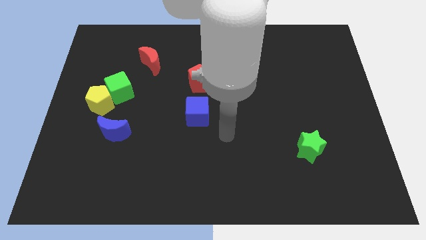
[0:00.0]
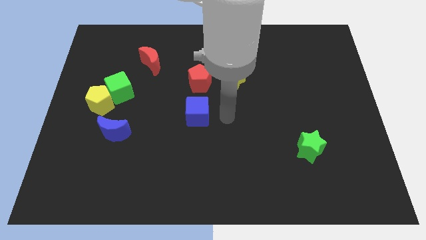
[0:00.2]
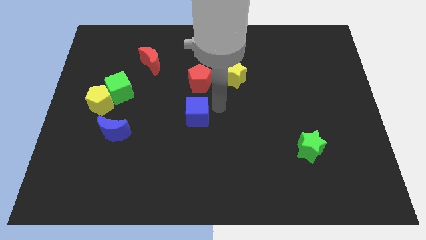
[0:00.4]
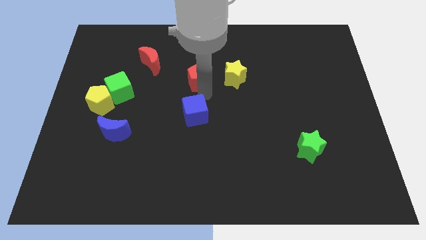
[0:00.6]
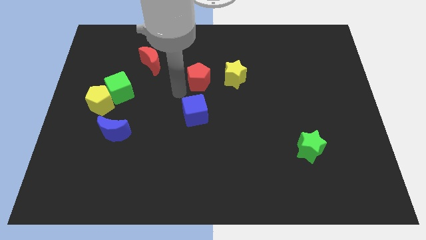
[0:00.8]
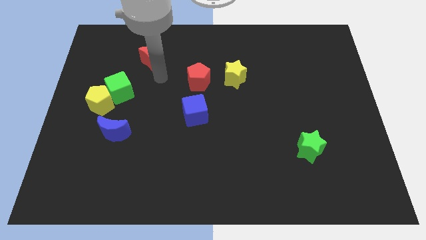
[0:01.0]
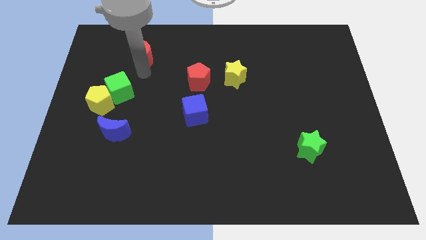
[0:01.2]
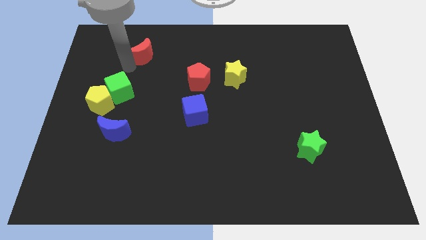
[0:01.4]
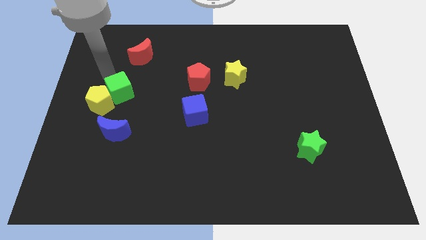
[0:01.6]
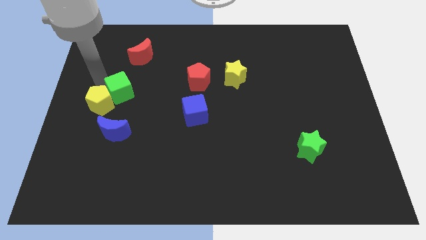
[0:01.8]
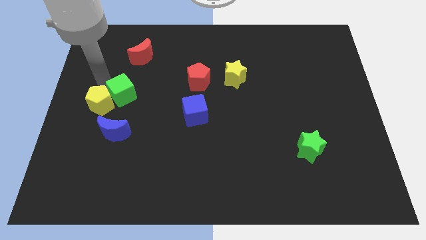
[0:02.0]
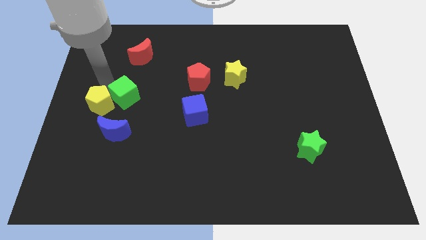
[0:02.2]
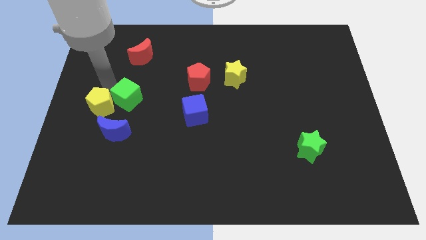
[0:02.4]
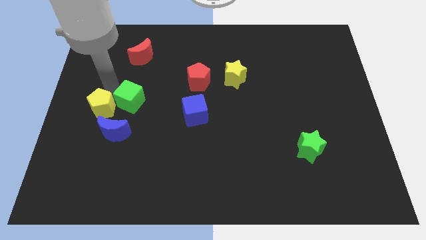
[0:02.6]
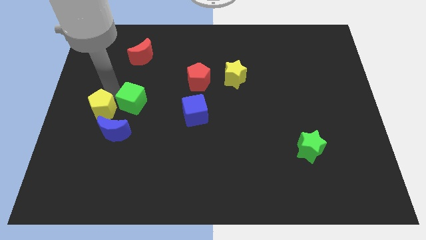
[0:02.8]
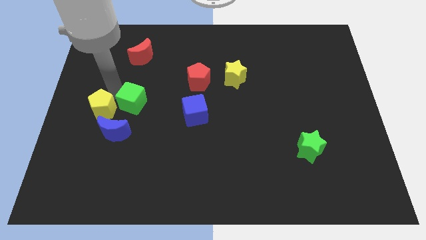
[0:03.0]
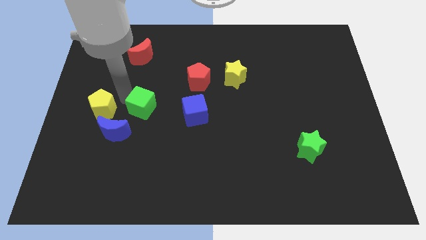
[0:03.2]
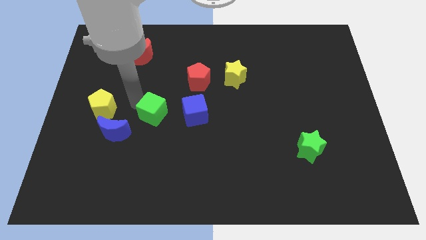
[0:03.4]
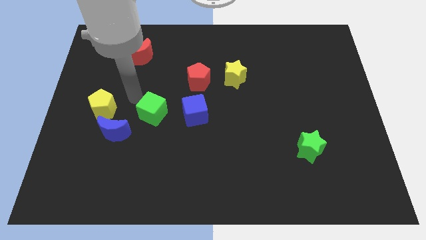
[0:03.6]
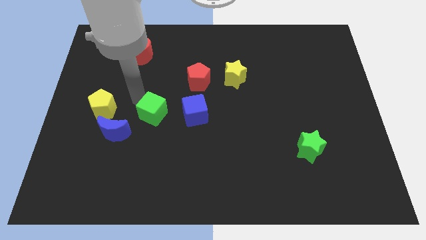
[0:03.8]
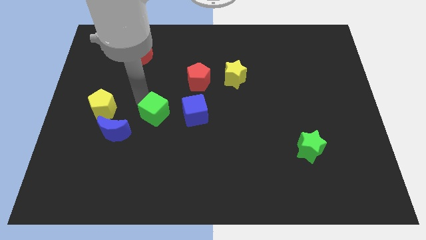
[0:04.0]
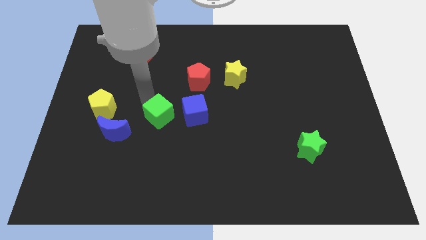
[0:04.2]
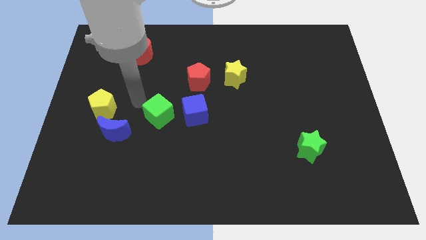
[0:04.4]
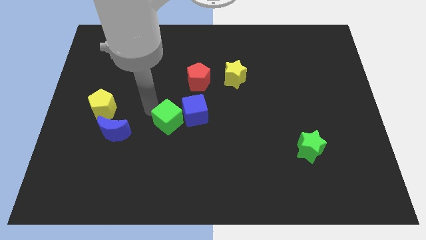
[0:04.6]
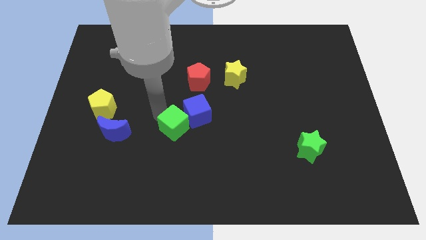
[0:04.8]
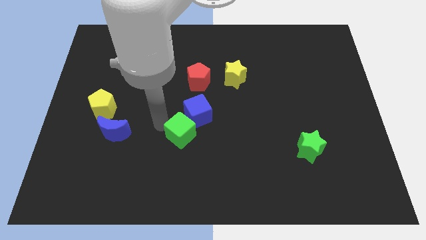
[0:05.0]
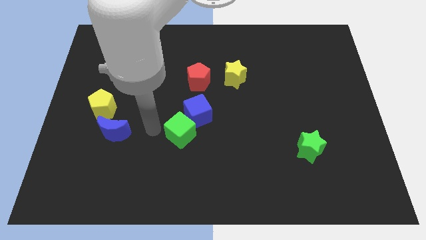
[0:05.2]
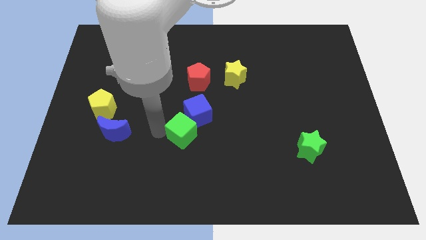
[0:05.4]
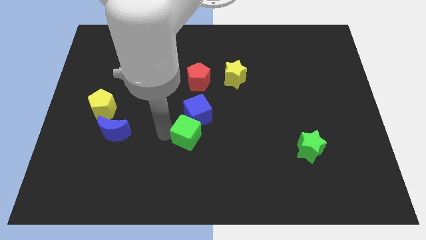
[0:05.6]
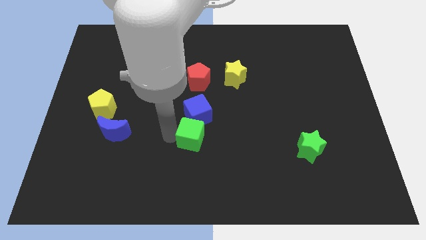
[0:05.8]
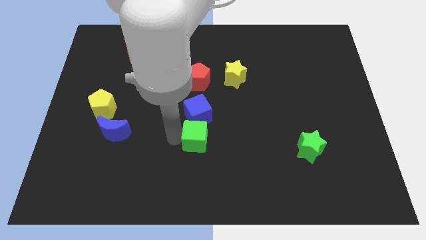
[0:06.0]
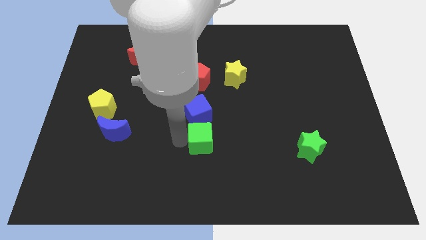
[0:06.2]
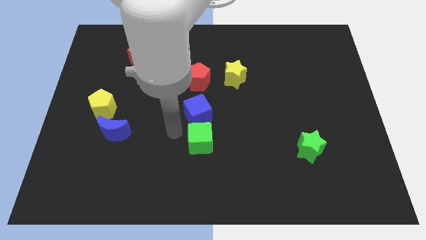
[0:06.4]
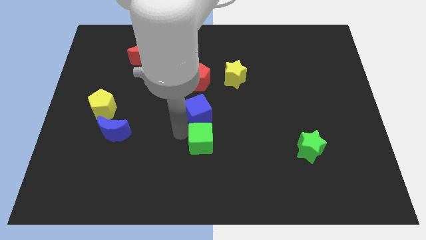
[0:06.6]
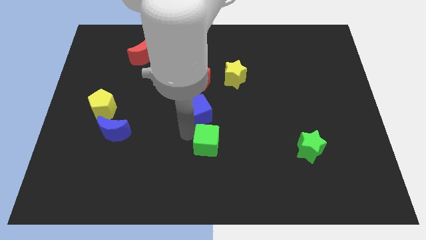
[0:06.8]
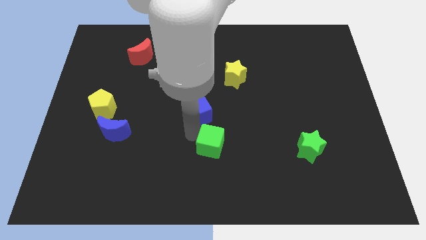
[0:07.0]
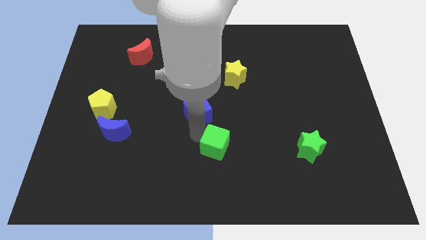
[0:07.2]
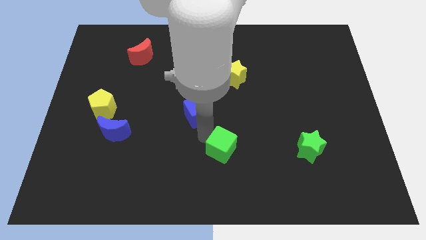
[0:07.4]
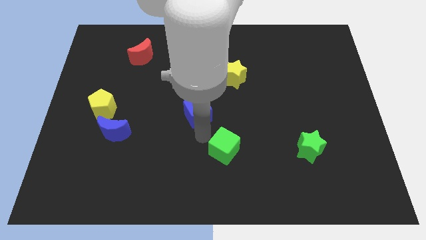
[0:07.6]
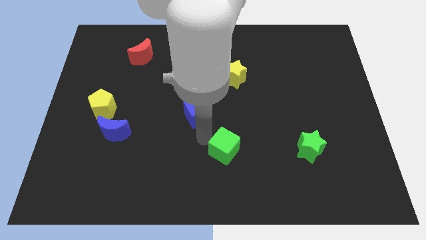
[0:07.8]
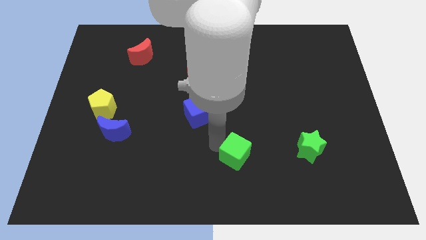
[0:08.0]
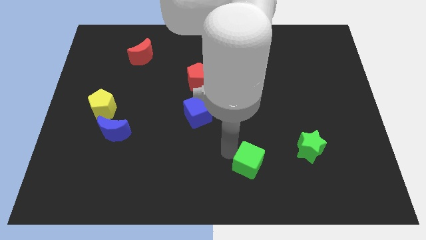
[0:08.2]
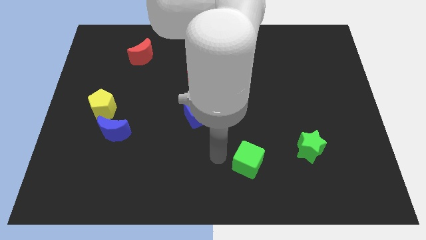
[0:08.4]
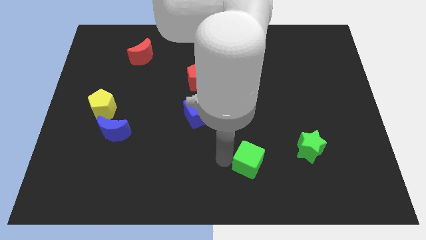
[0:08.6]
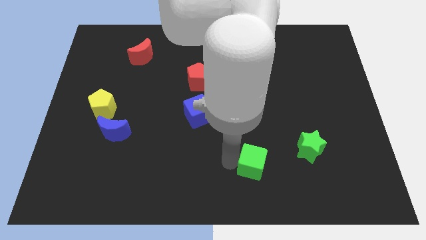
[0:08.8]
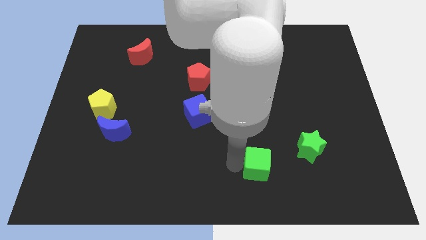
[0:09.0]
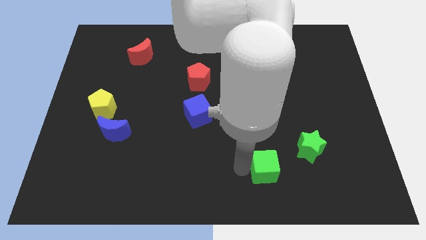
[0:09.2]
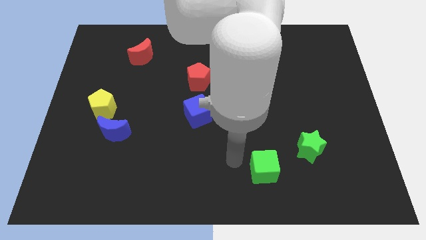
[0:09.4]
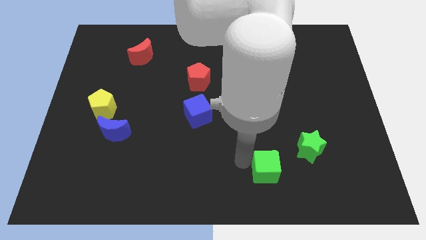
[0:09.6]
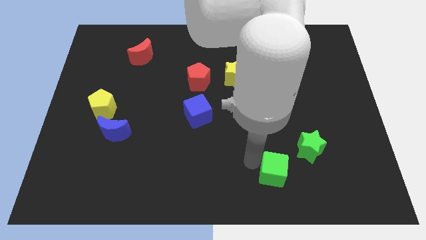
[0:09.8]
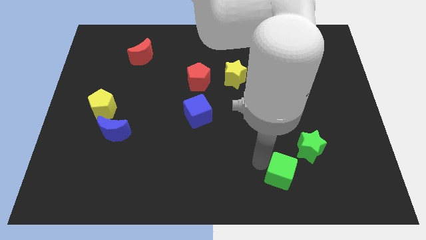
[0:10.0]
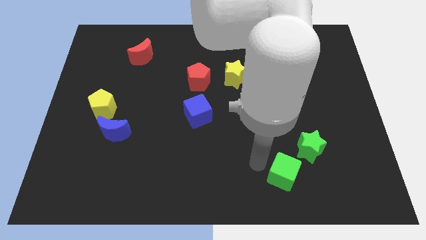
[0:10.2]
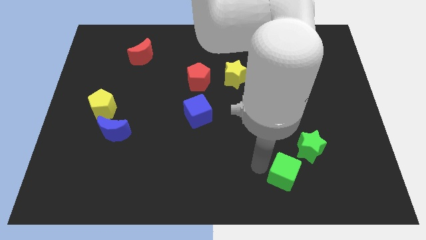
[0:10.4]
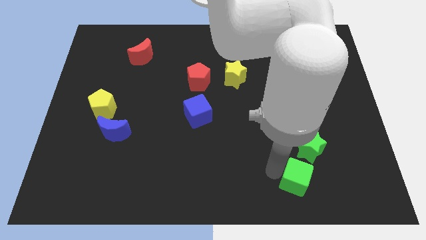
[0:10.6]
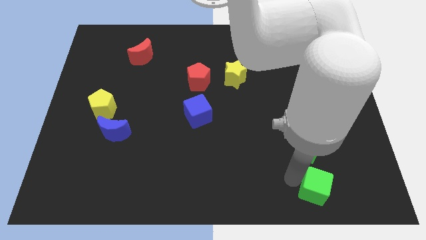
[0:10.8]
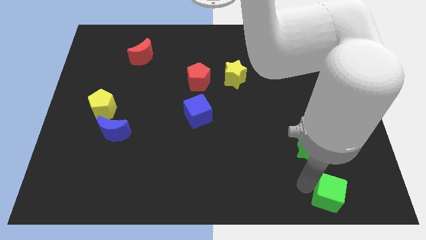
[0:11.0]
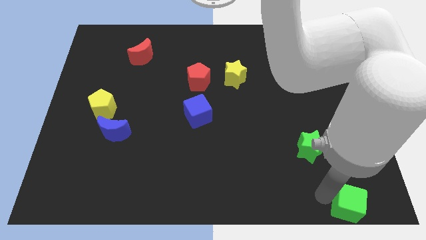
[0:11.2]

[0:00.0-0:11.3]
push the green cube to the bottom right corner
